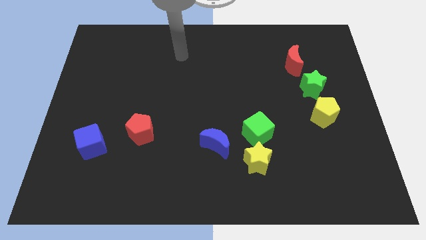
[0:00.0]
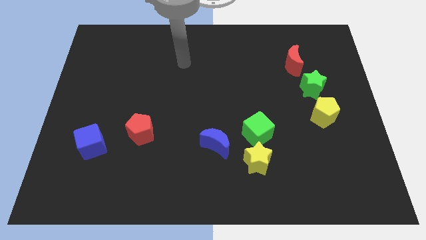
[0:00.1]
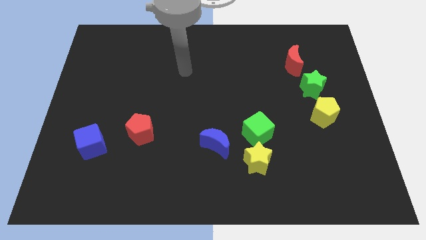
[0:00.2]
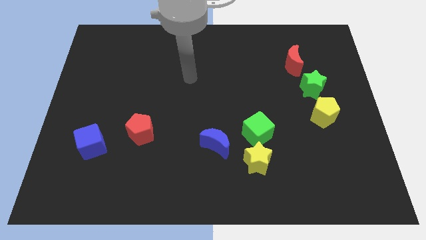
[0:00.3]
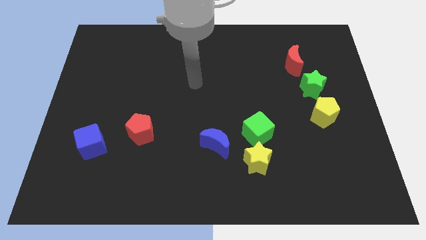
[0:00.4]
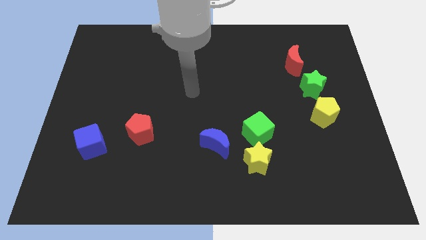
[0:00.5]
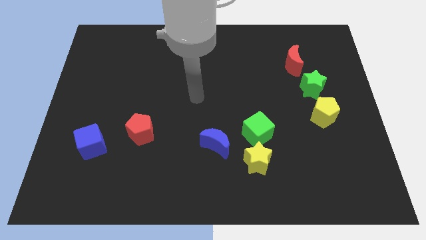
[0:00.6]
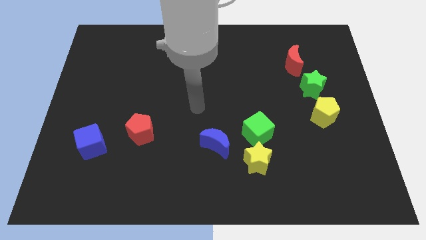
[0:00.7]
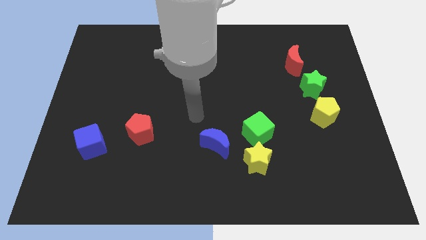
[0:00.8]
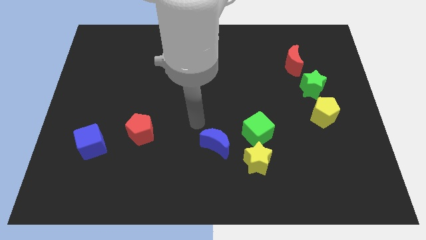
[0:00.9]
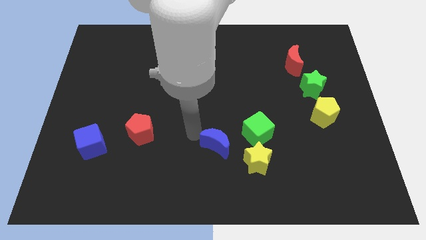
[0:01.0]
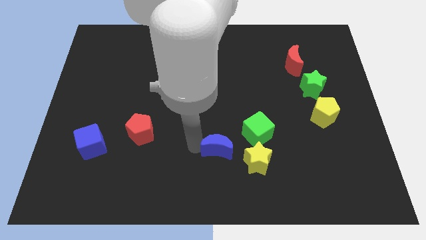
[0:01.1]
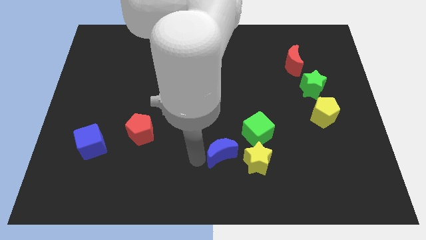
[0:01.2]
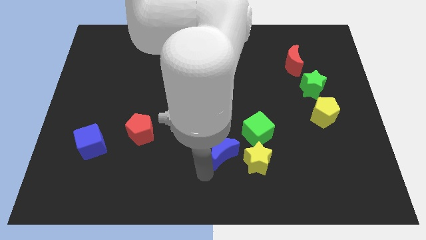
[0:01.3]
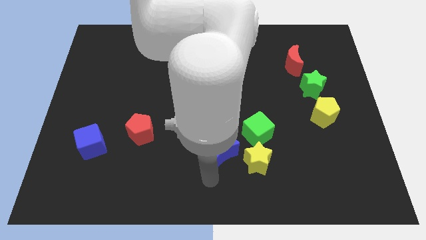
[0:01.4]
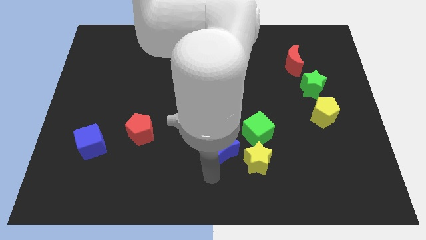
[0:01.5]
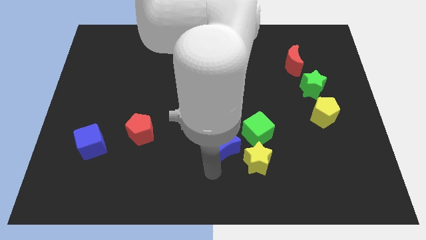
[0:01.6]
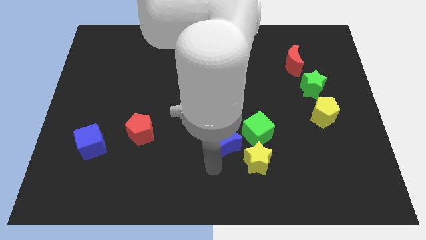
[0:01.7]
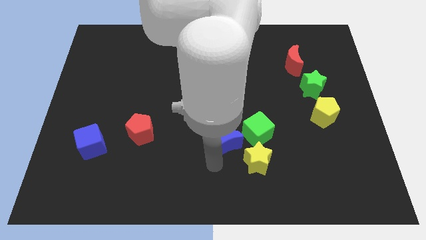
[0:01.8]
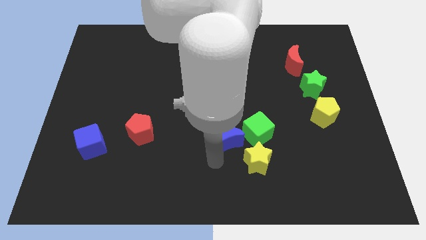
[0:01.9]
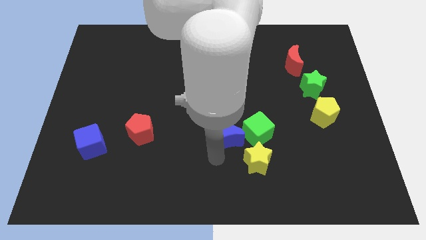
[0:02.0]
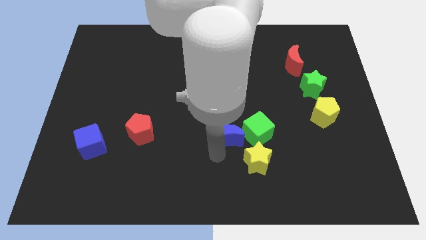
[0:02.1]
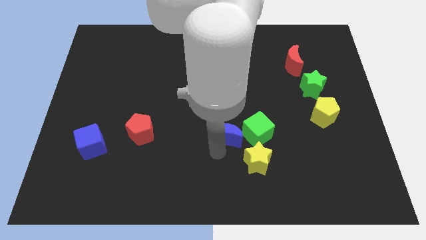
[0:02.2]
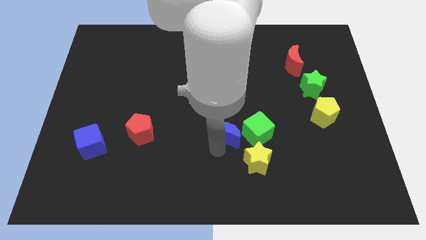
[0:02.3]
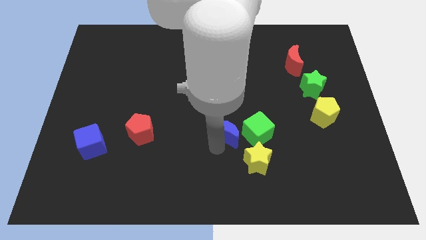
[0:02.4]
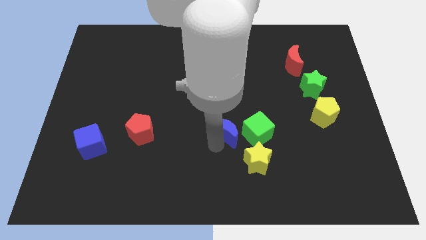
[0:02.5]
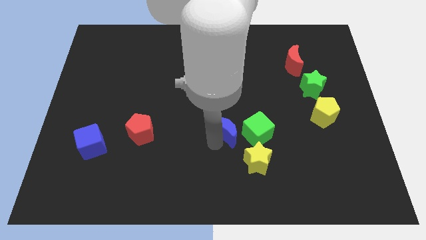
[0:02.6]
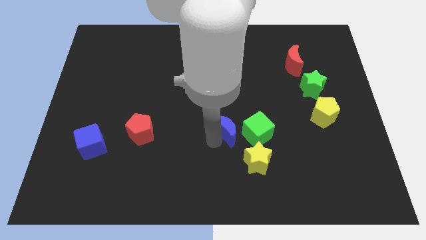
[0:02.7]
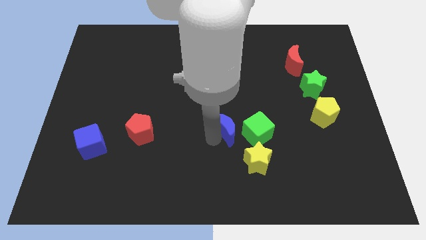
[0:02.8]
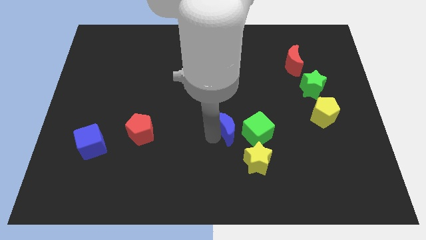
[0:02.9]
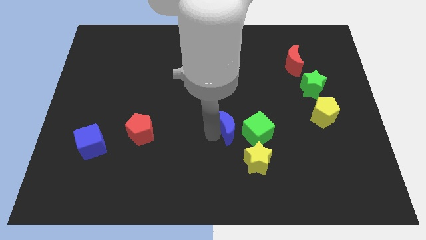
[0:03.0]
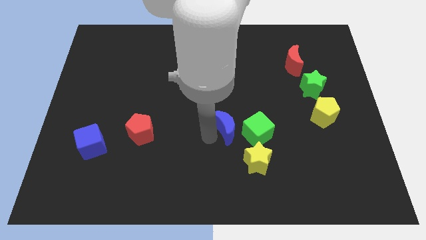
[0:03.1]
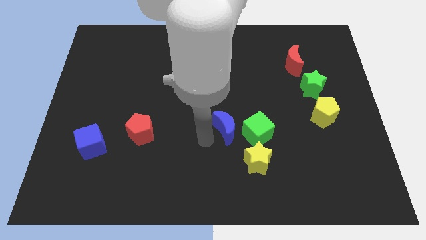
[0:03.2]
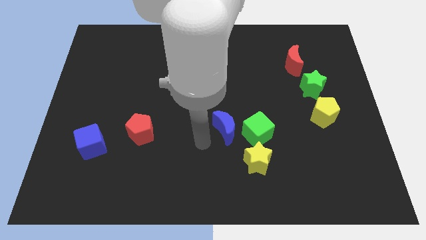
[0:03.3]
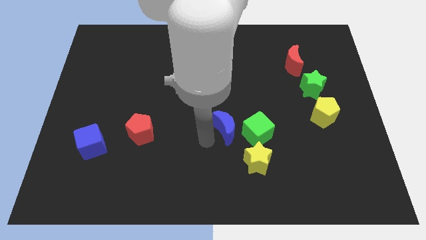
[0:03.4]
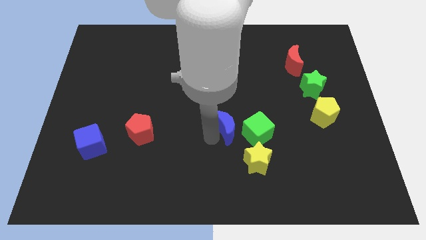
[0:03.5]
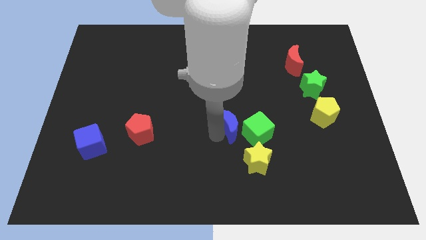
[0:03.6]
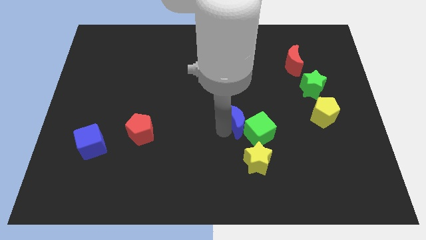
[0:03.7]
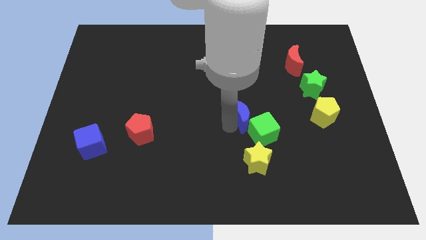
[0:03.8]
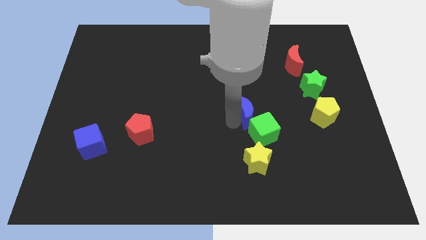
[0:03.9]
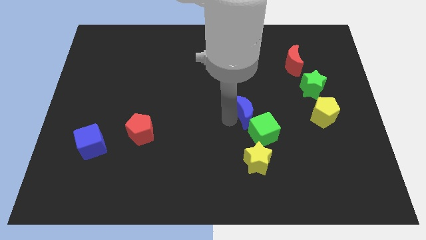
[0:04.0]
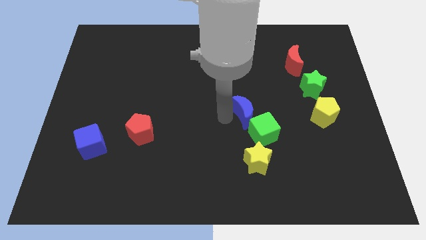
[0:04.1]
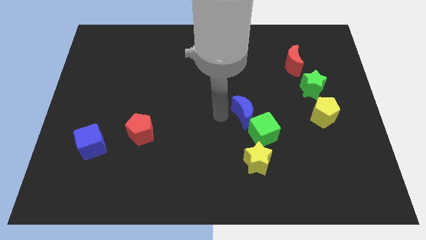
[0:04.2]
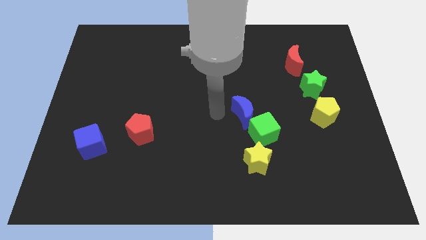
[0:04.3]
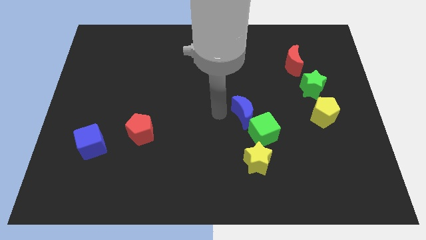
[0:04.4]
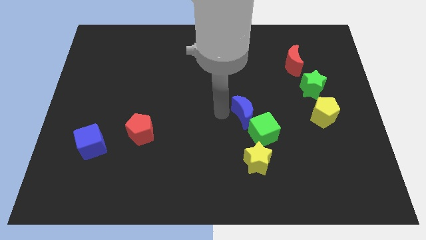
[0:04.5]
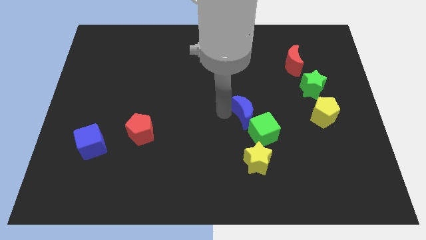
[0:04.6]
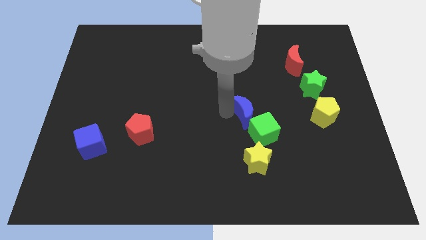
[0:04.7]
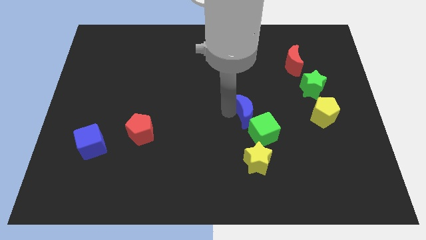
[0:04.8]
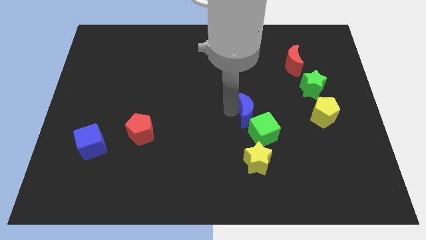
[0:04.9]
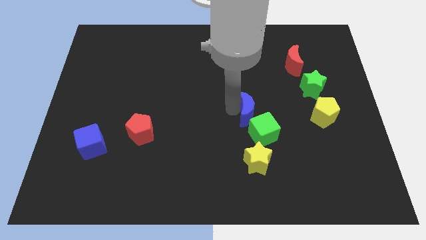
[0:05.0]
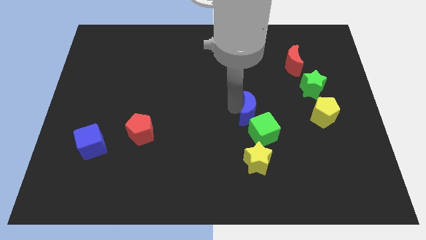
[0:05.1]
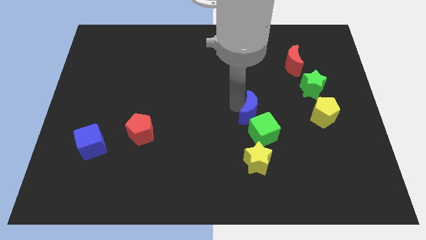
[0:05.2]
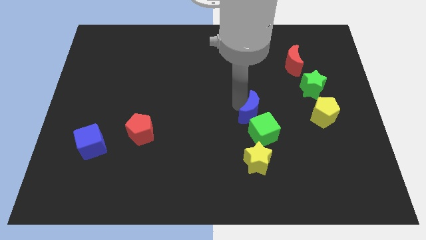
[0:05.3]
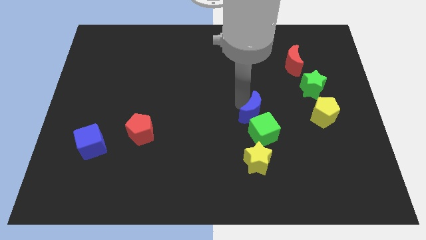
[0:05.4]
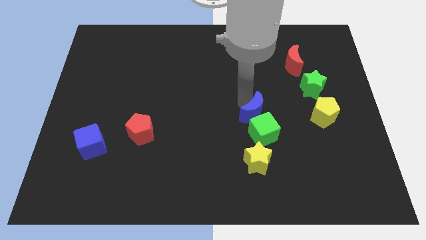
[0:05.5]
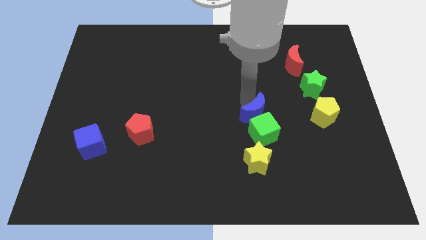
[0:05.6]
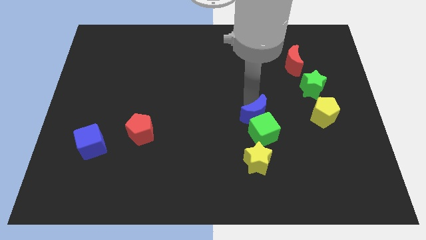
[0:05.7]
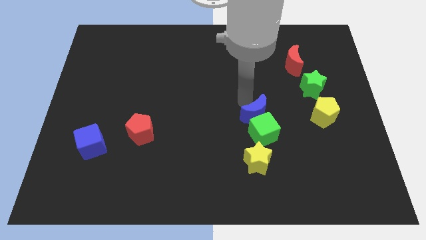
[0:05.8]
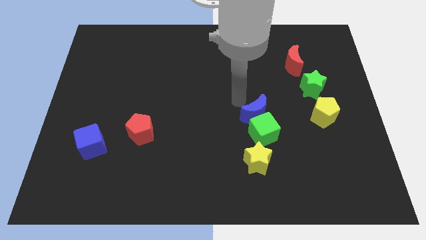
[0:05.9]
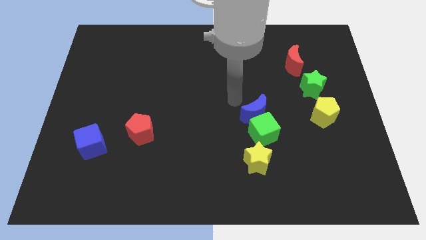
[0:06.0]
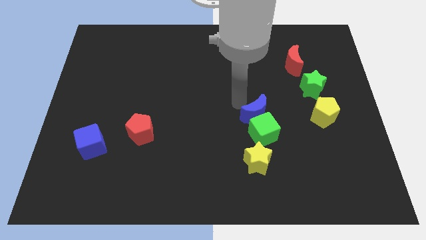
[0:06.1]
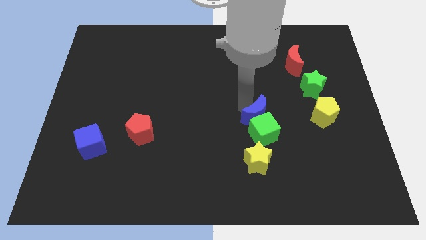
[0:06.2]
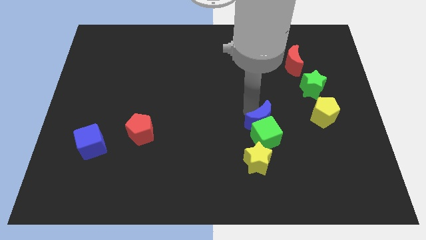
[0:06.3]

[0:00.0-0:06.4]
slightly slide the blue moon right

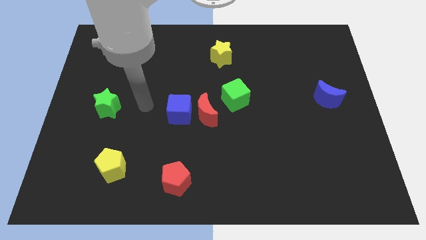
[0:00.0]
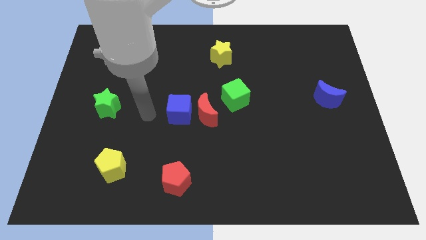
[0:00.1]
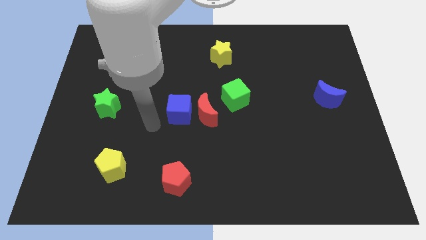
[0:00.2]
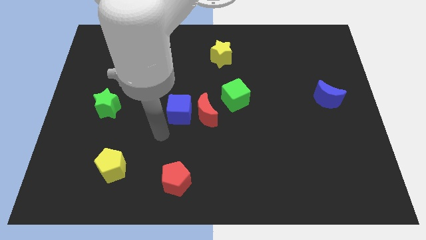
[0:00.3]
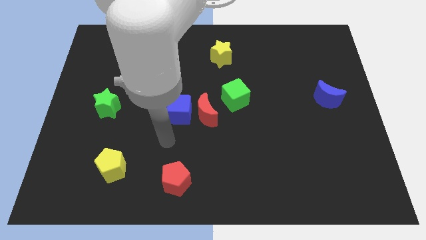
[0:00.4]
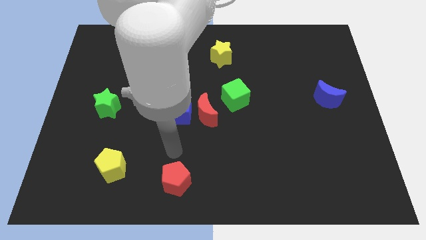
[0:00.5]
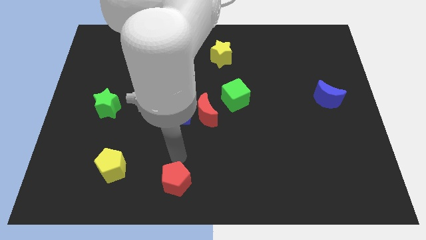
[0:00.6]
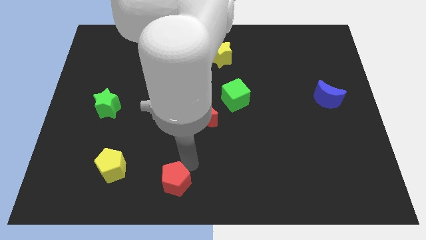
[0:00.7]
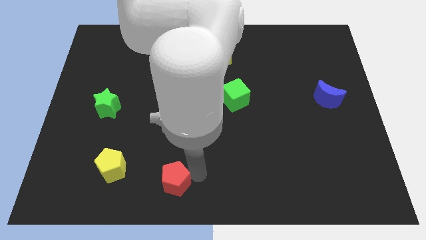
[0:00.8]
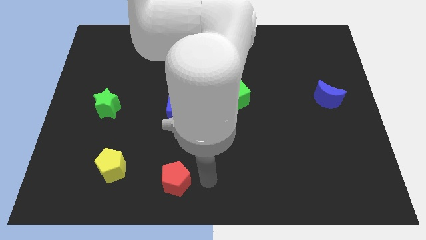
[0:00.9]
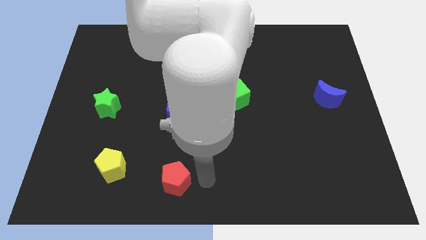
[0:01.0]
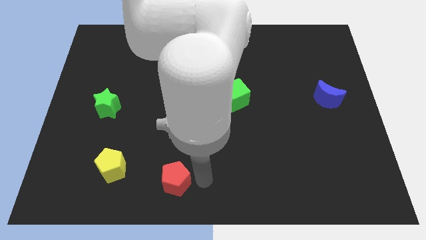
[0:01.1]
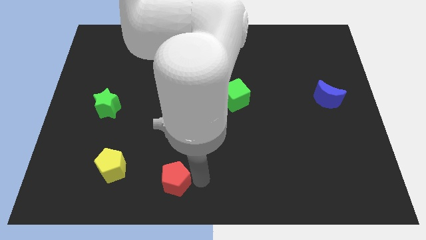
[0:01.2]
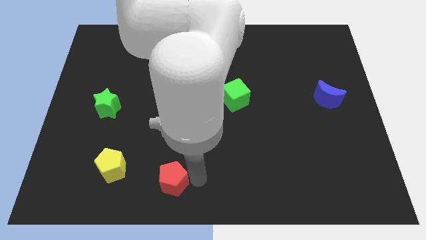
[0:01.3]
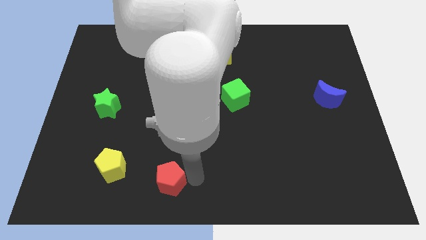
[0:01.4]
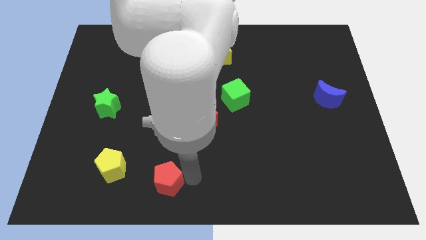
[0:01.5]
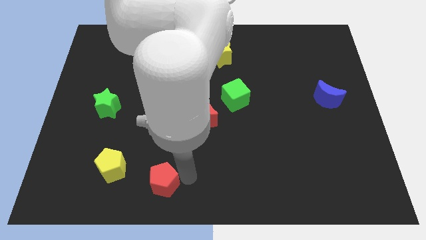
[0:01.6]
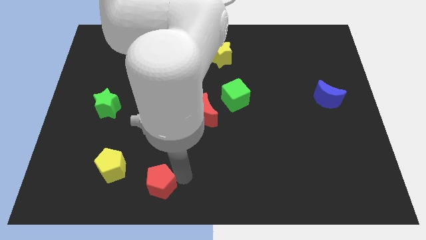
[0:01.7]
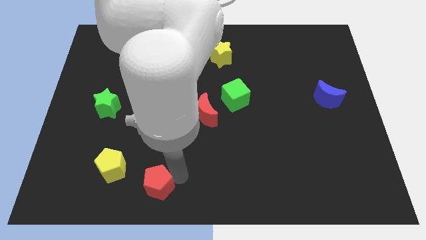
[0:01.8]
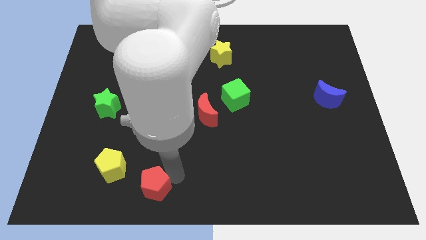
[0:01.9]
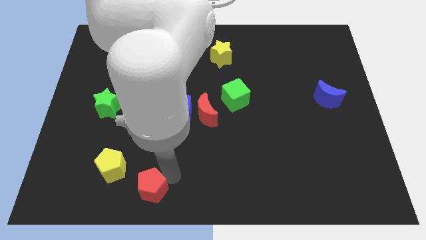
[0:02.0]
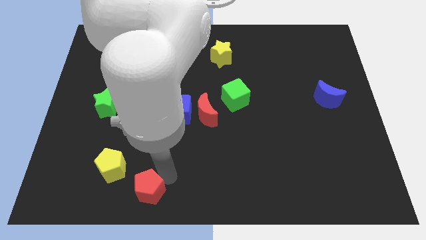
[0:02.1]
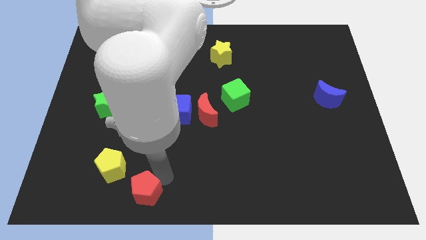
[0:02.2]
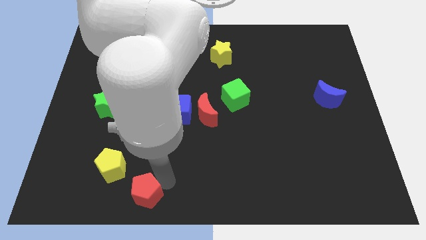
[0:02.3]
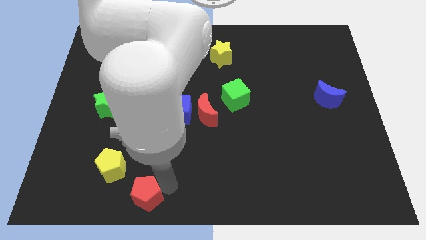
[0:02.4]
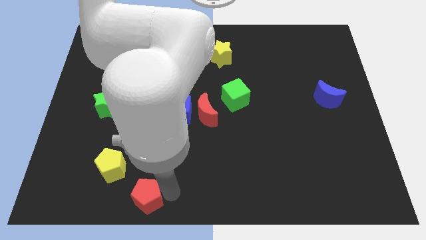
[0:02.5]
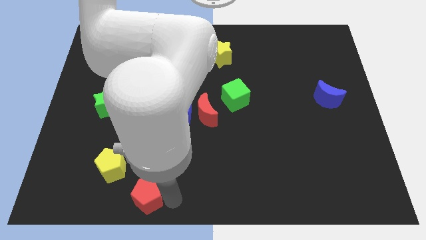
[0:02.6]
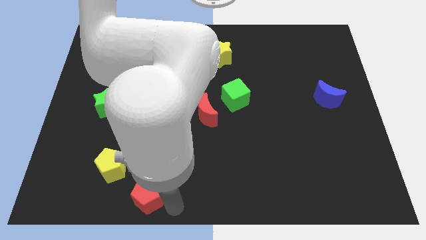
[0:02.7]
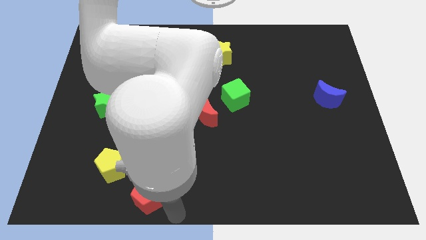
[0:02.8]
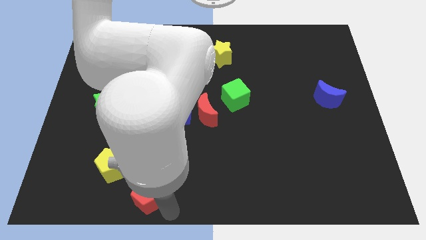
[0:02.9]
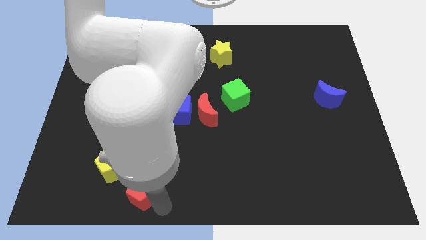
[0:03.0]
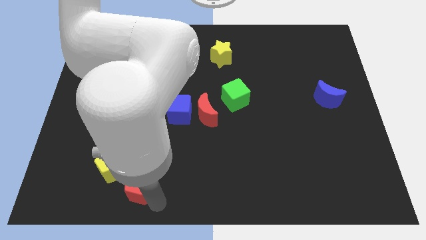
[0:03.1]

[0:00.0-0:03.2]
push the red pentagon a little left
